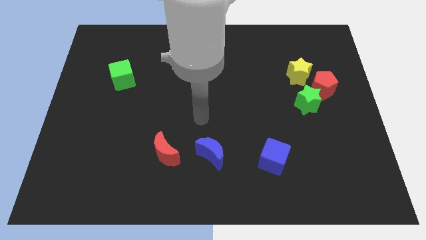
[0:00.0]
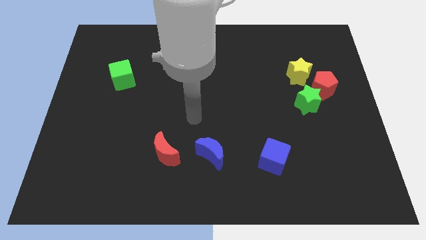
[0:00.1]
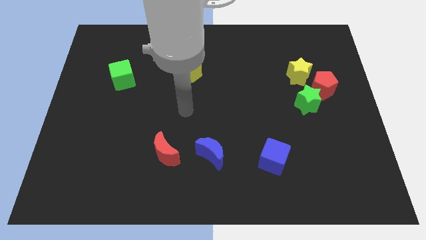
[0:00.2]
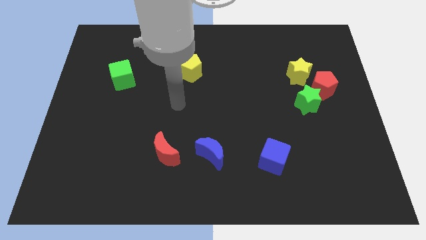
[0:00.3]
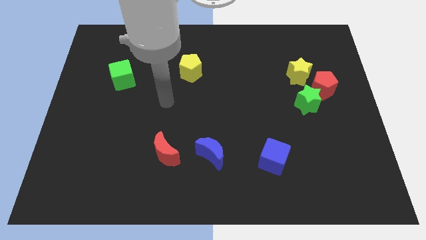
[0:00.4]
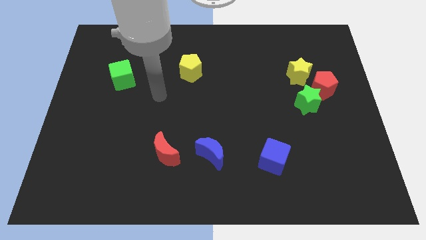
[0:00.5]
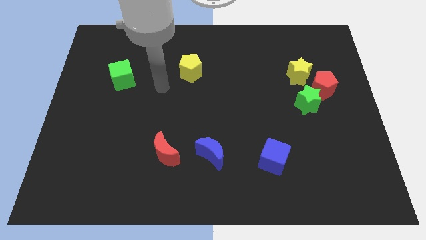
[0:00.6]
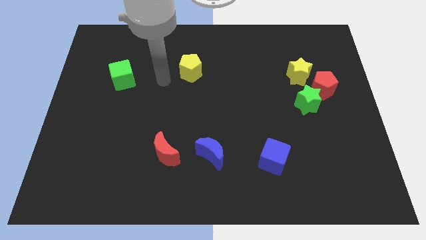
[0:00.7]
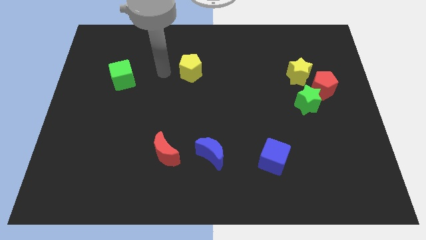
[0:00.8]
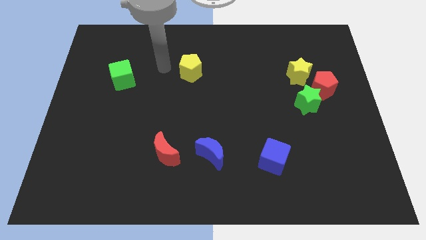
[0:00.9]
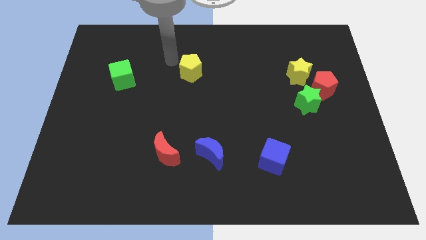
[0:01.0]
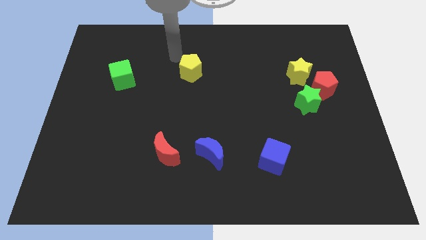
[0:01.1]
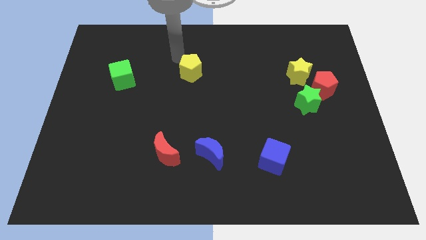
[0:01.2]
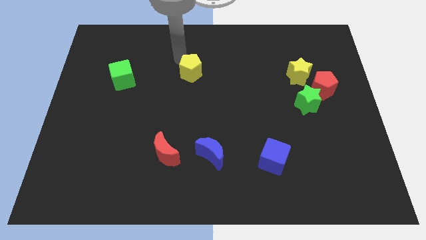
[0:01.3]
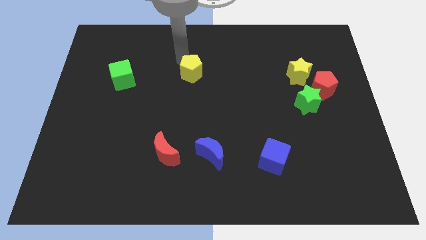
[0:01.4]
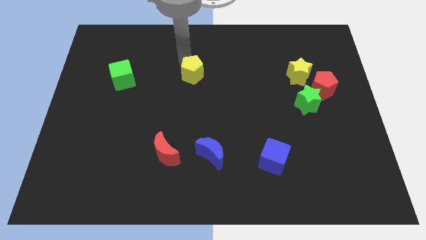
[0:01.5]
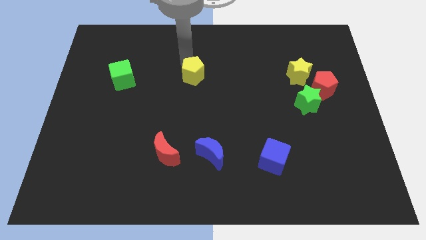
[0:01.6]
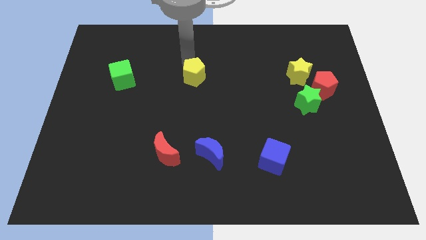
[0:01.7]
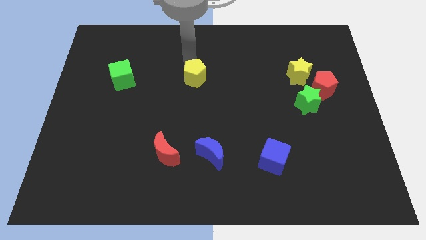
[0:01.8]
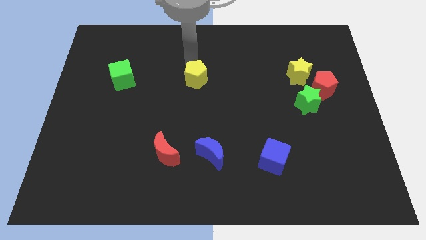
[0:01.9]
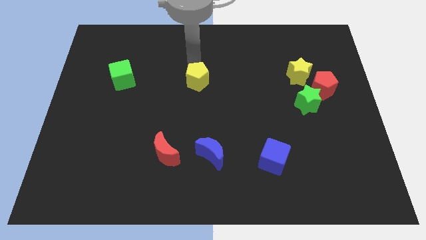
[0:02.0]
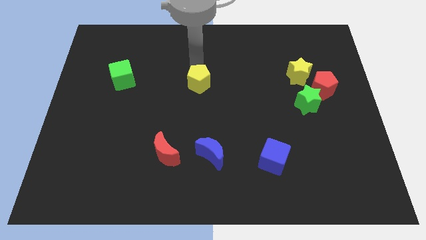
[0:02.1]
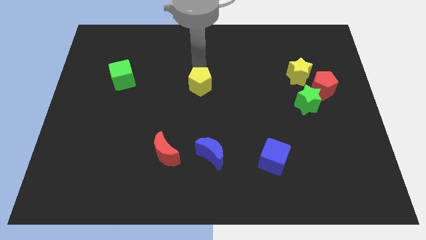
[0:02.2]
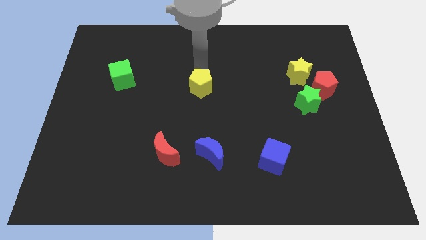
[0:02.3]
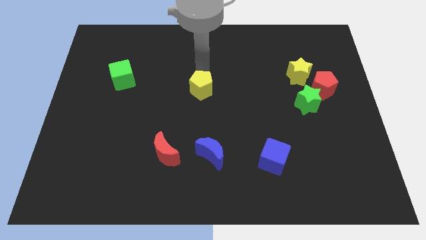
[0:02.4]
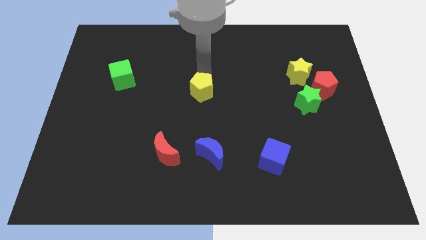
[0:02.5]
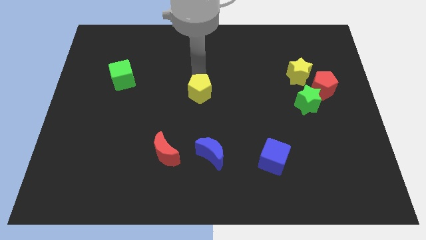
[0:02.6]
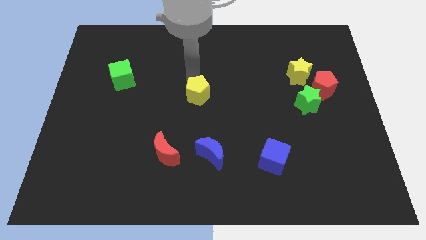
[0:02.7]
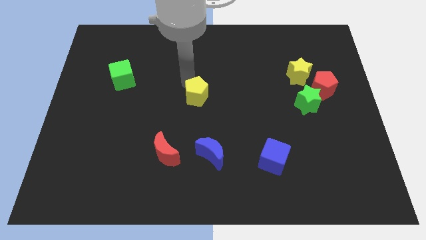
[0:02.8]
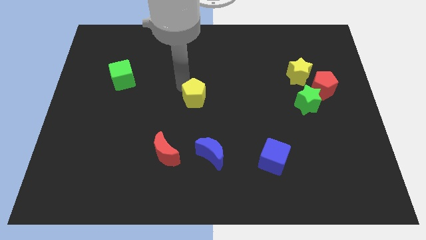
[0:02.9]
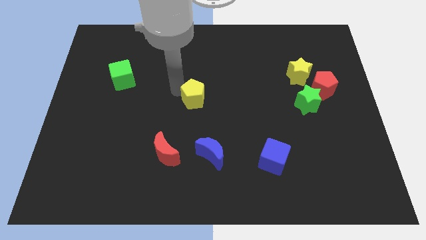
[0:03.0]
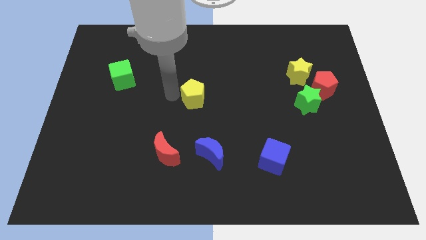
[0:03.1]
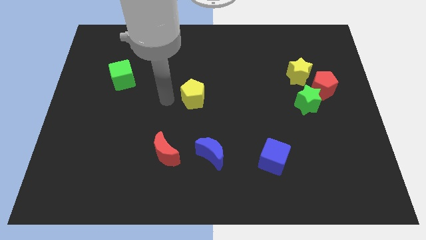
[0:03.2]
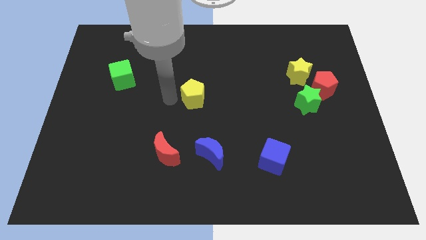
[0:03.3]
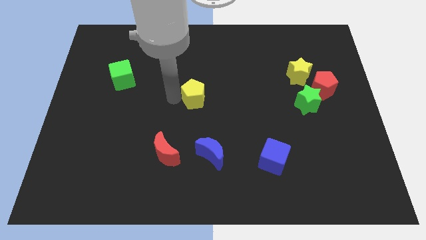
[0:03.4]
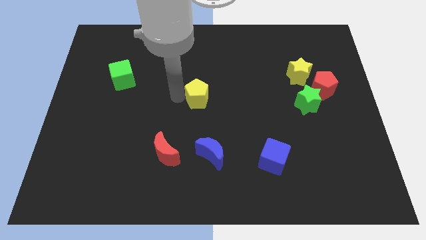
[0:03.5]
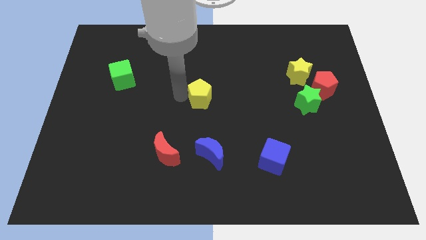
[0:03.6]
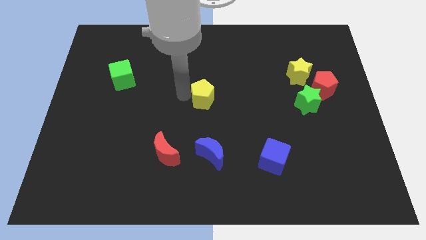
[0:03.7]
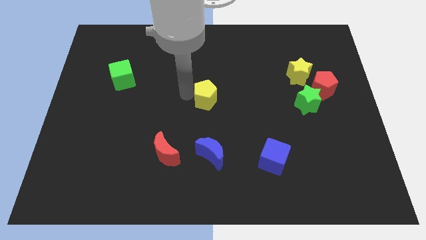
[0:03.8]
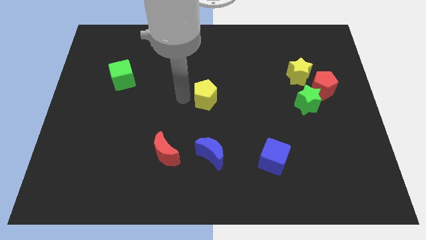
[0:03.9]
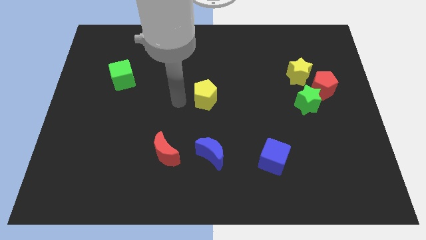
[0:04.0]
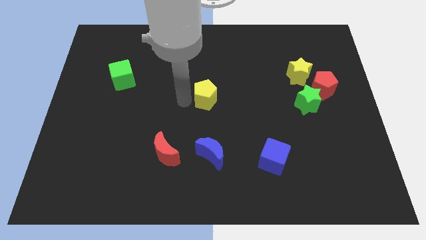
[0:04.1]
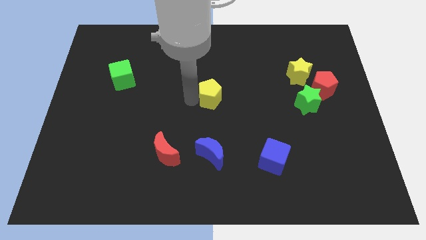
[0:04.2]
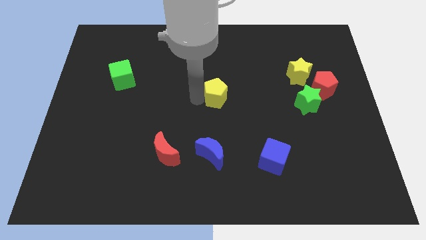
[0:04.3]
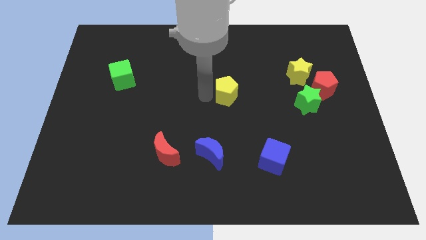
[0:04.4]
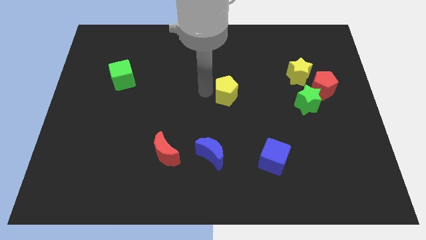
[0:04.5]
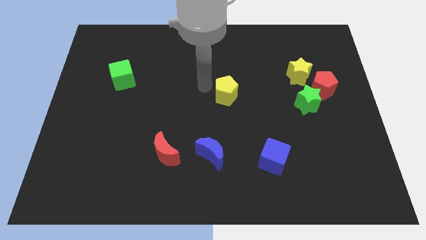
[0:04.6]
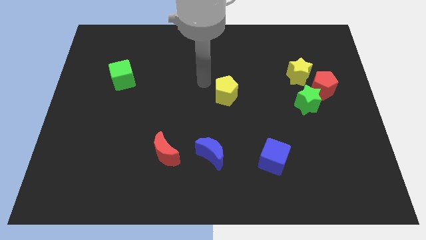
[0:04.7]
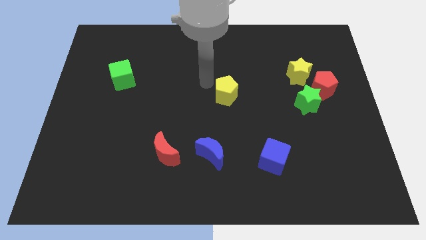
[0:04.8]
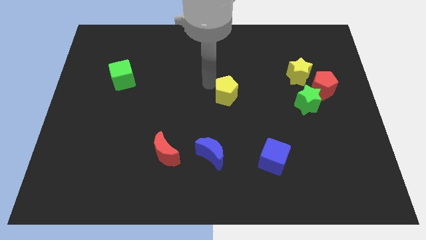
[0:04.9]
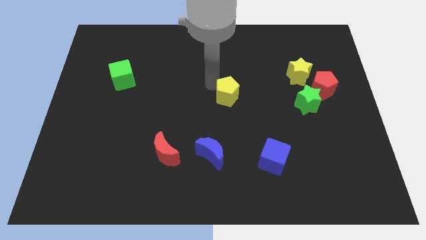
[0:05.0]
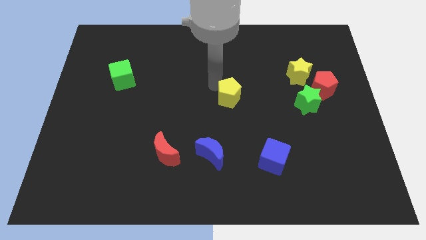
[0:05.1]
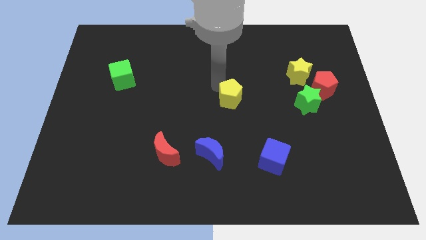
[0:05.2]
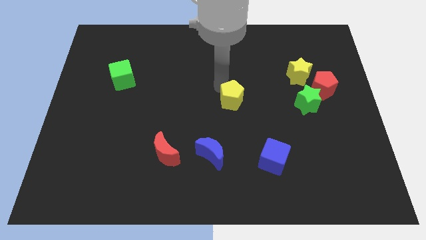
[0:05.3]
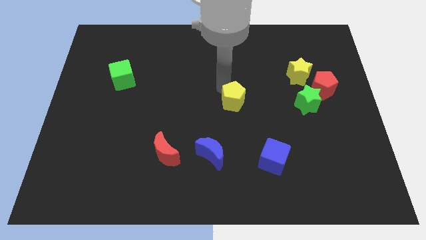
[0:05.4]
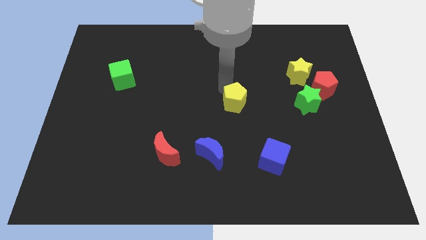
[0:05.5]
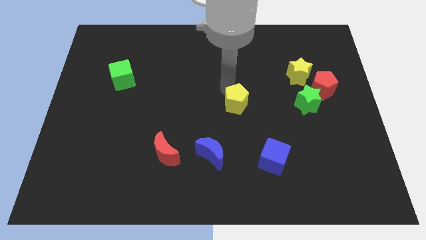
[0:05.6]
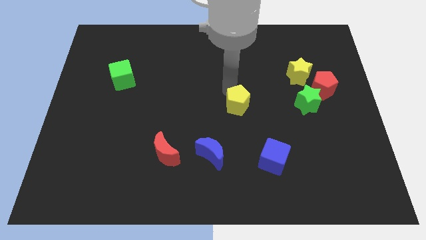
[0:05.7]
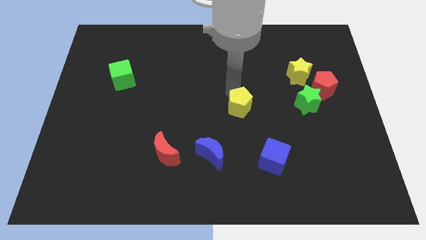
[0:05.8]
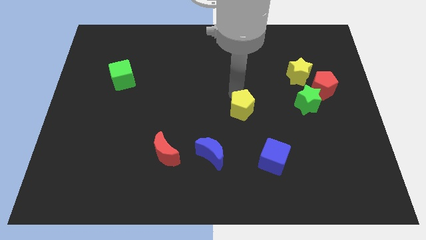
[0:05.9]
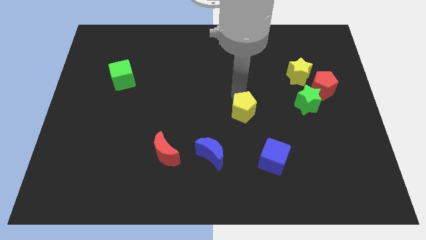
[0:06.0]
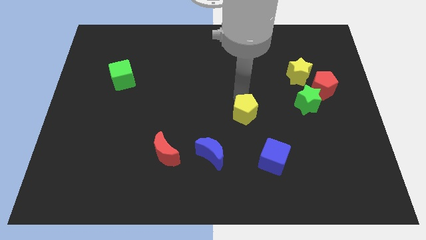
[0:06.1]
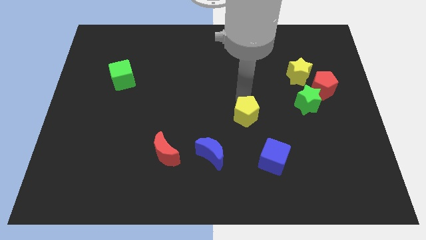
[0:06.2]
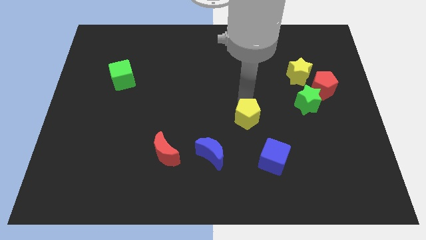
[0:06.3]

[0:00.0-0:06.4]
put the yellow pentagon to the top of the blue cube

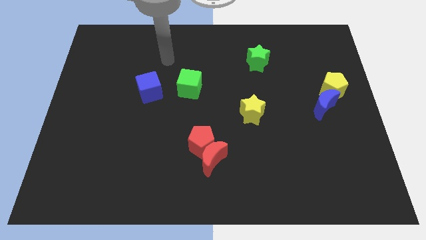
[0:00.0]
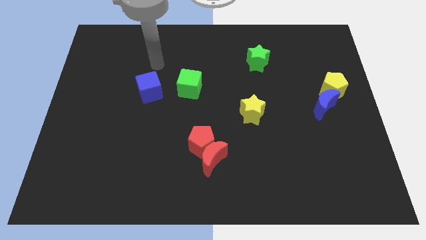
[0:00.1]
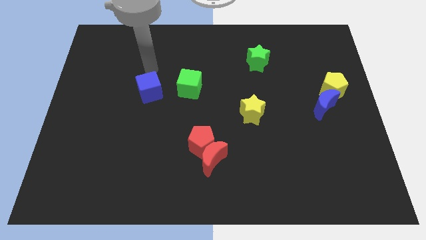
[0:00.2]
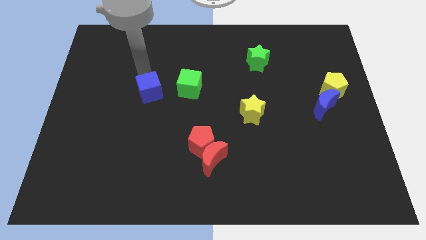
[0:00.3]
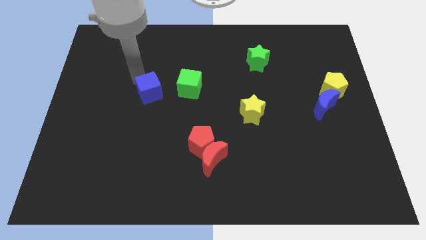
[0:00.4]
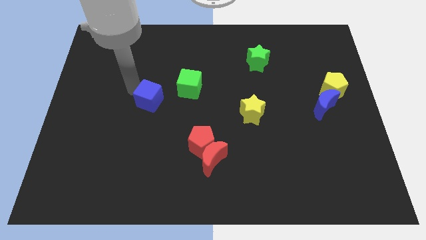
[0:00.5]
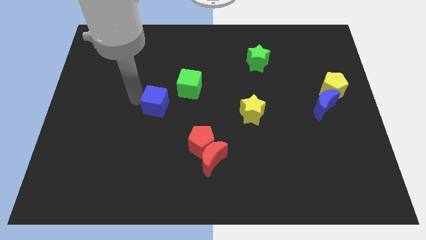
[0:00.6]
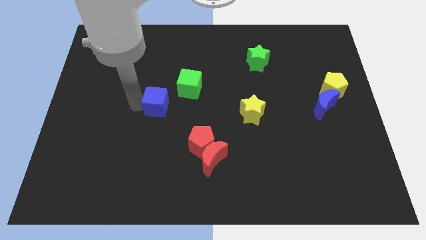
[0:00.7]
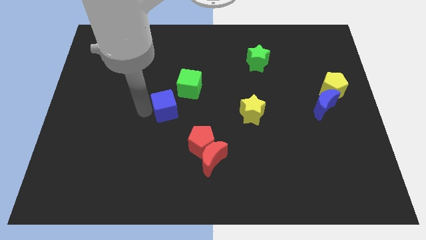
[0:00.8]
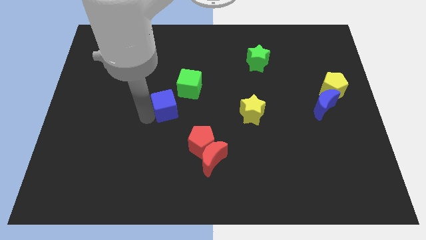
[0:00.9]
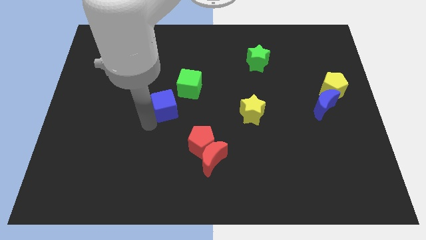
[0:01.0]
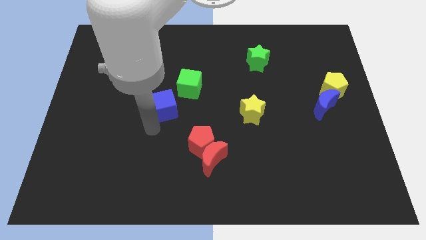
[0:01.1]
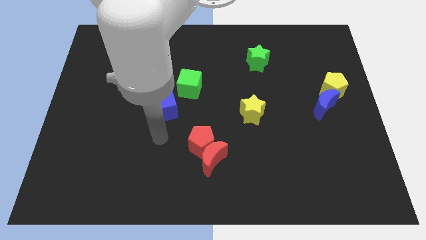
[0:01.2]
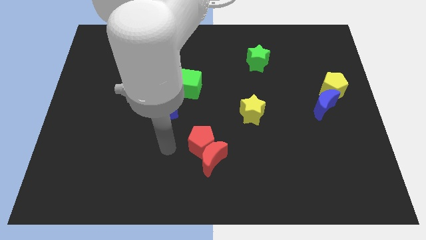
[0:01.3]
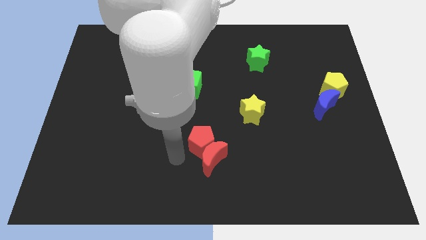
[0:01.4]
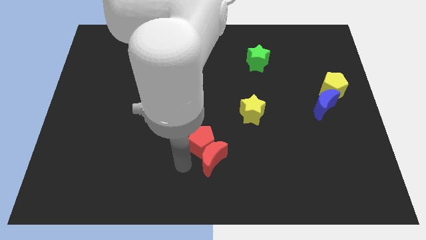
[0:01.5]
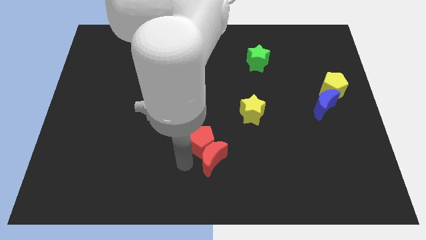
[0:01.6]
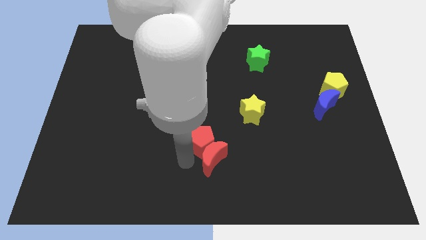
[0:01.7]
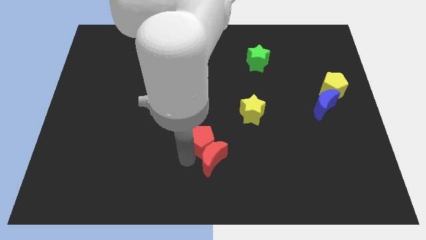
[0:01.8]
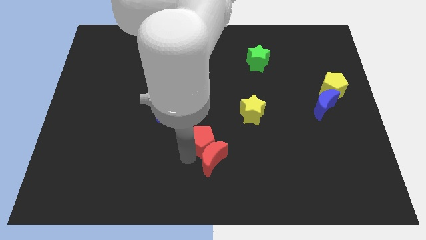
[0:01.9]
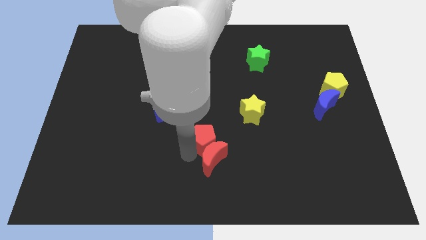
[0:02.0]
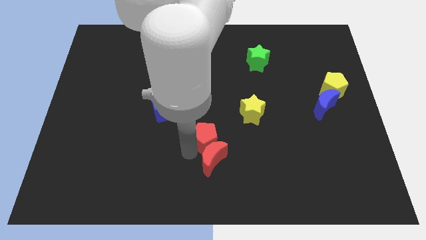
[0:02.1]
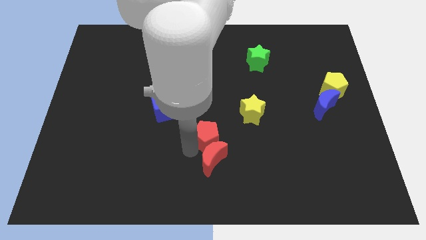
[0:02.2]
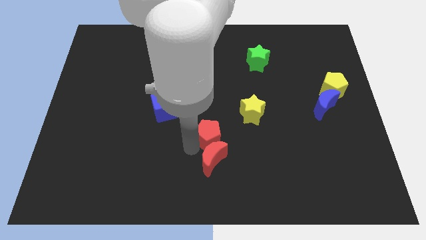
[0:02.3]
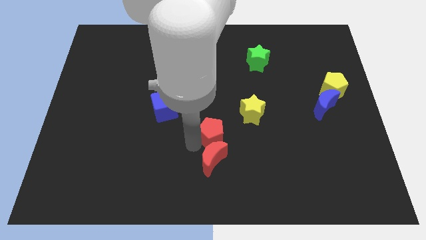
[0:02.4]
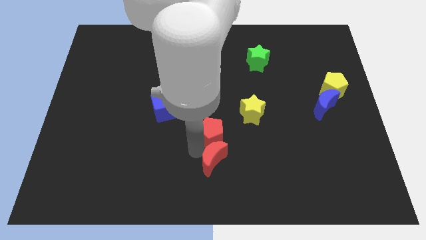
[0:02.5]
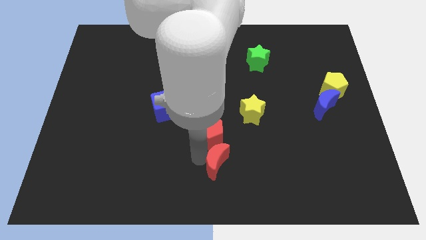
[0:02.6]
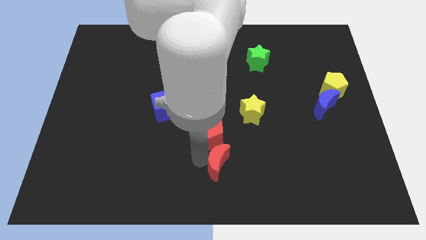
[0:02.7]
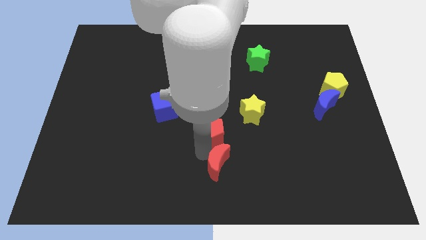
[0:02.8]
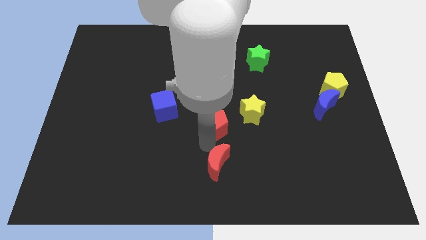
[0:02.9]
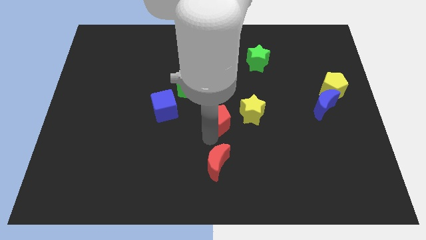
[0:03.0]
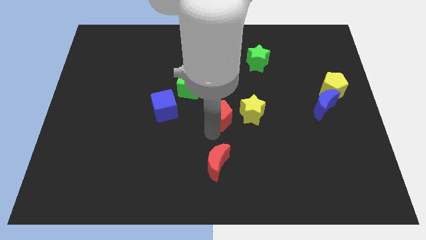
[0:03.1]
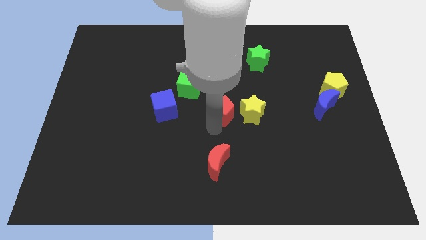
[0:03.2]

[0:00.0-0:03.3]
move the red pentagon to the top left of the yellow star
